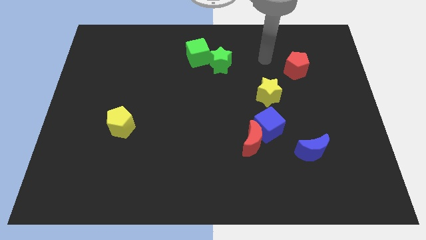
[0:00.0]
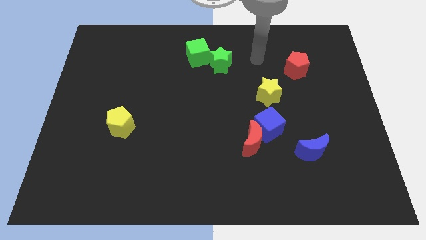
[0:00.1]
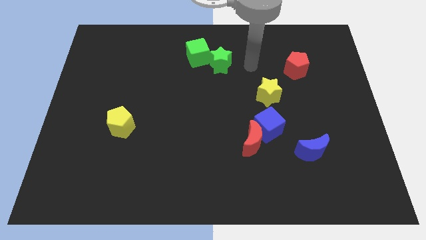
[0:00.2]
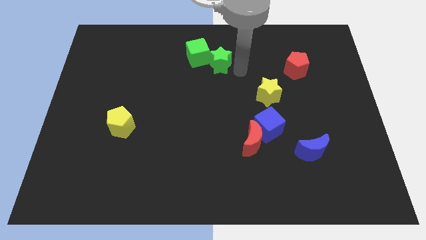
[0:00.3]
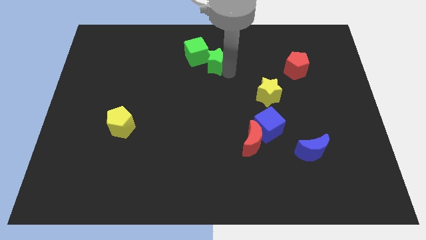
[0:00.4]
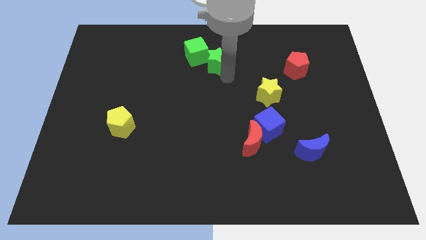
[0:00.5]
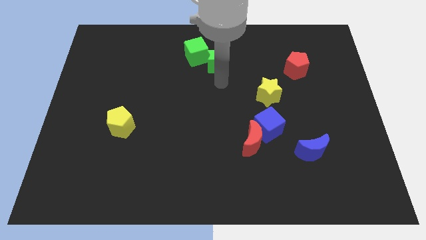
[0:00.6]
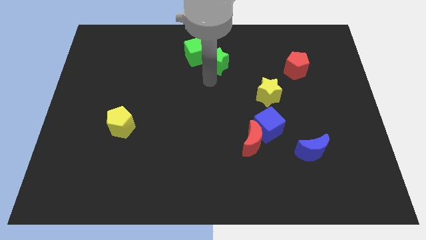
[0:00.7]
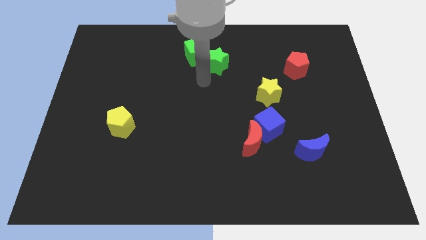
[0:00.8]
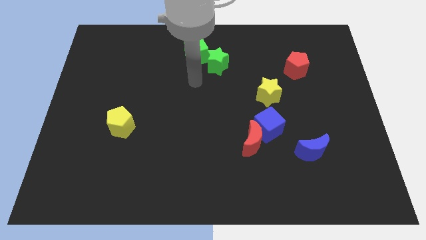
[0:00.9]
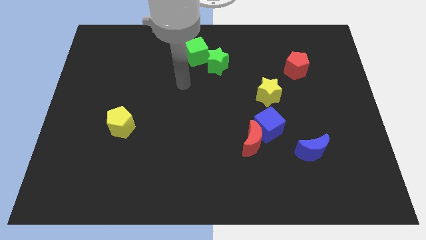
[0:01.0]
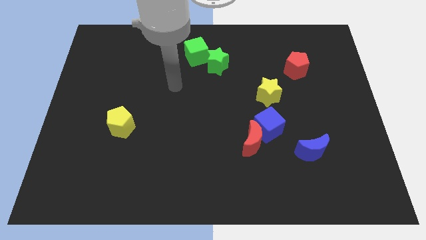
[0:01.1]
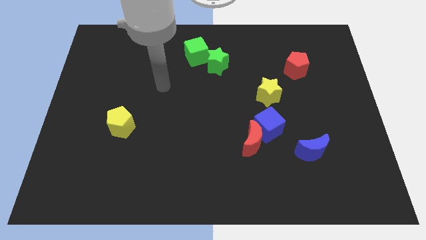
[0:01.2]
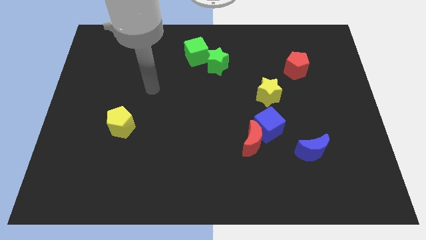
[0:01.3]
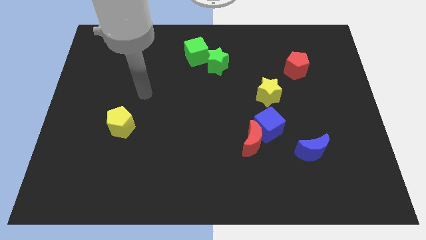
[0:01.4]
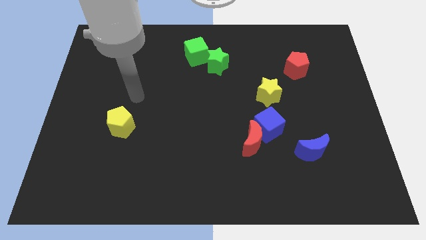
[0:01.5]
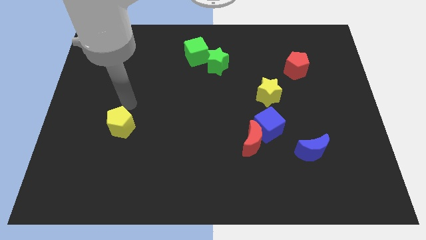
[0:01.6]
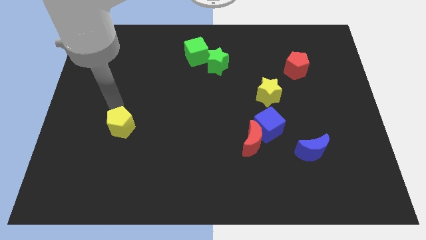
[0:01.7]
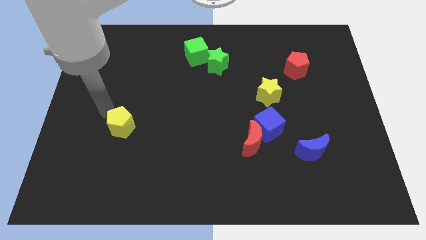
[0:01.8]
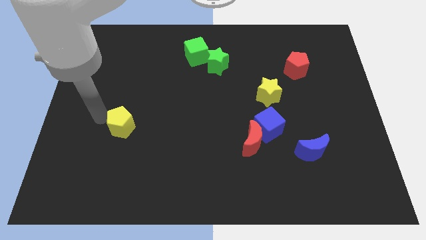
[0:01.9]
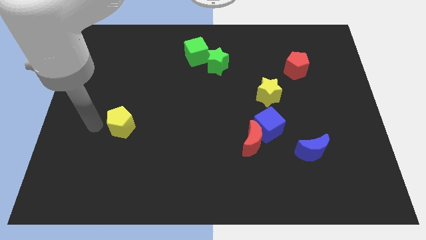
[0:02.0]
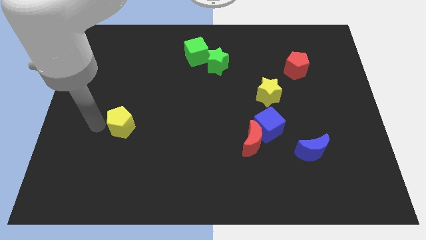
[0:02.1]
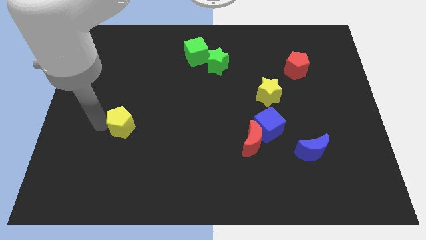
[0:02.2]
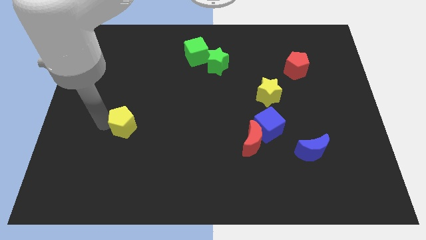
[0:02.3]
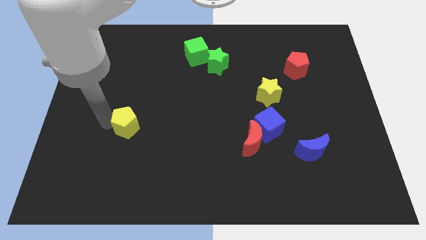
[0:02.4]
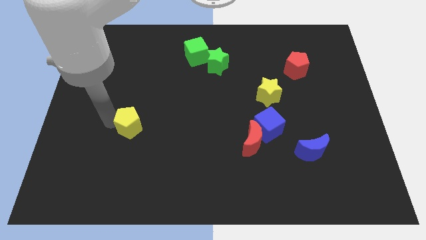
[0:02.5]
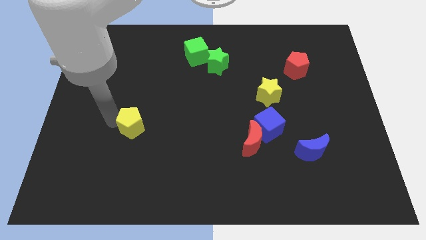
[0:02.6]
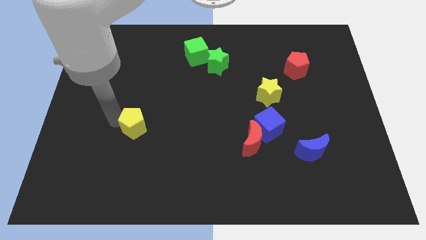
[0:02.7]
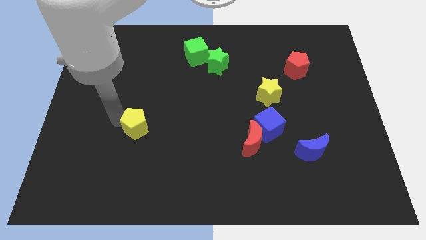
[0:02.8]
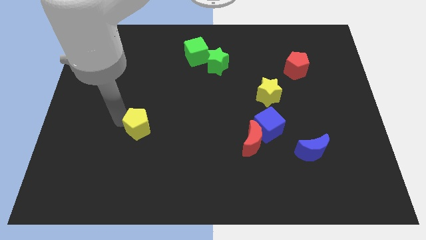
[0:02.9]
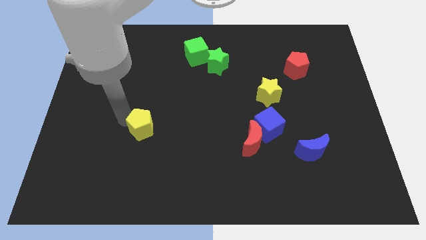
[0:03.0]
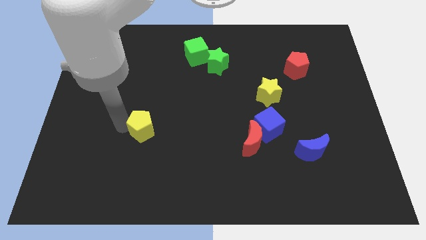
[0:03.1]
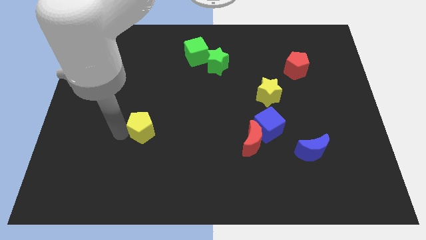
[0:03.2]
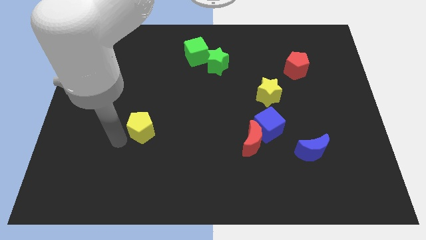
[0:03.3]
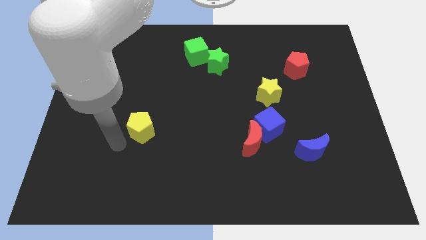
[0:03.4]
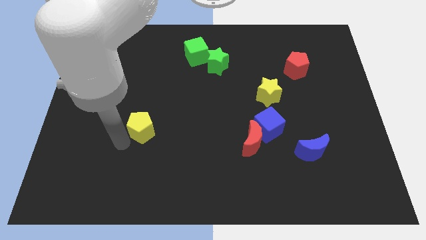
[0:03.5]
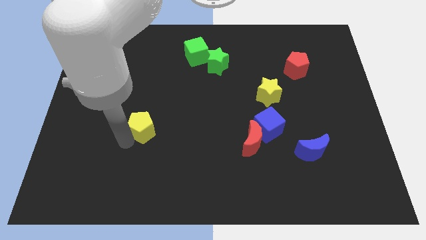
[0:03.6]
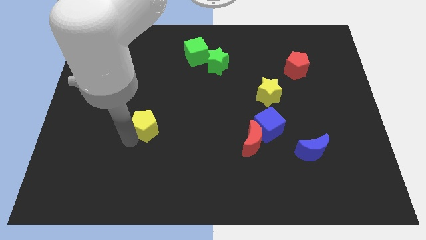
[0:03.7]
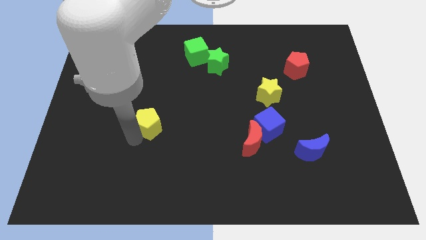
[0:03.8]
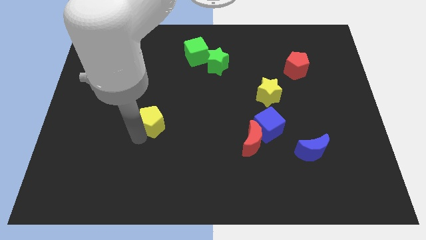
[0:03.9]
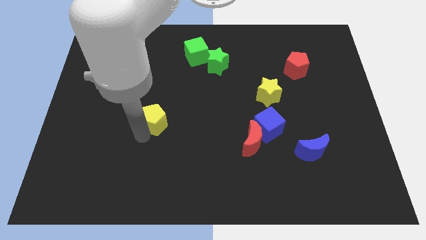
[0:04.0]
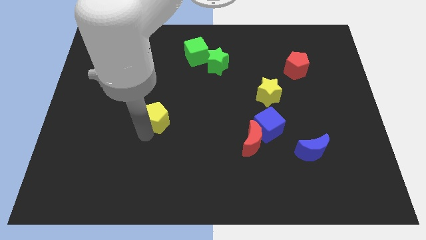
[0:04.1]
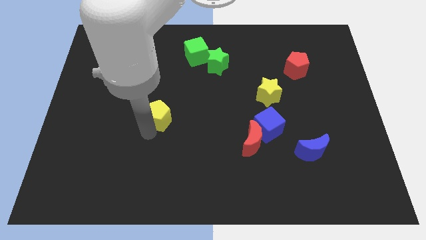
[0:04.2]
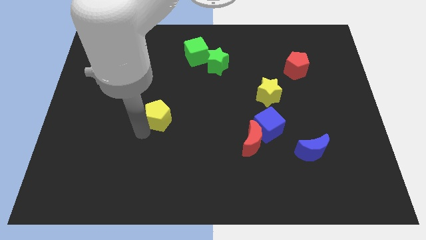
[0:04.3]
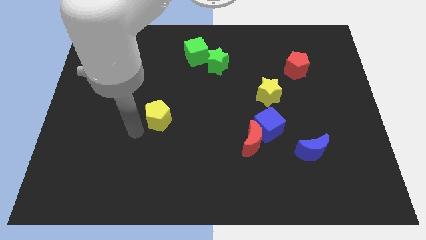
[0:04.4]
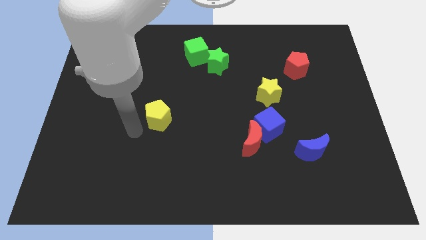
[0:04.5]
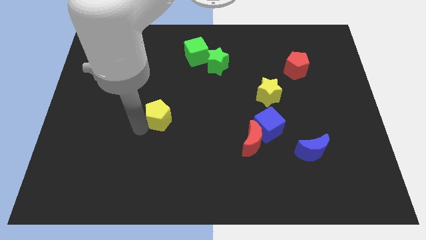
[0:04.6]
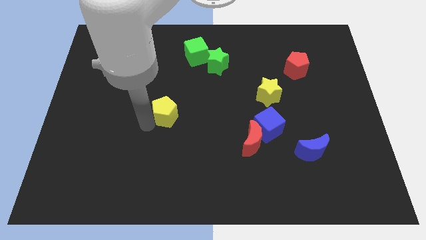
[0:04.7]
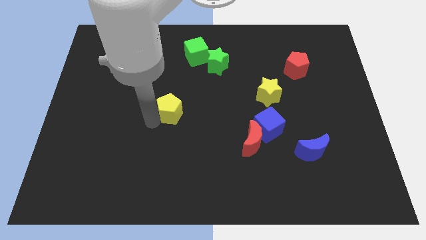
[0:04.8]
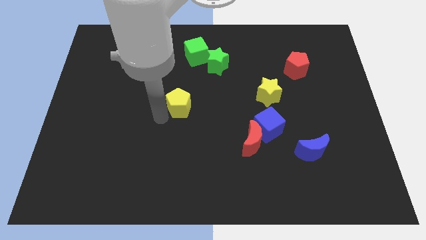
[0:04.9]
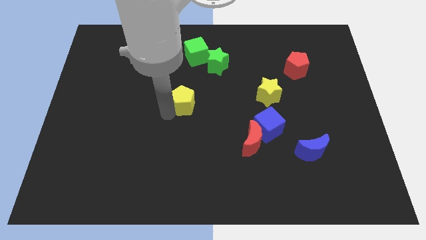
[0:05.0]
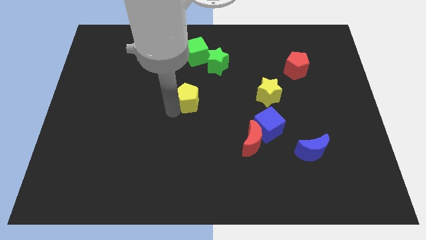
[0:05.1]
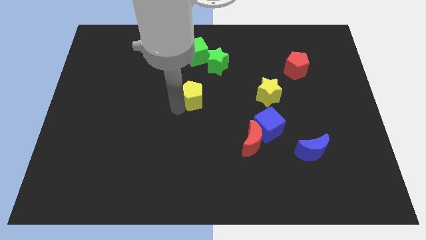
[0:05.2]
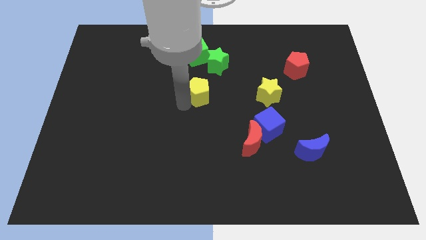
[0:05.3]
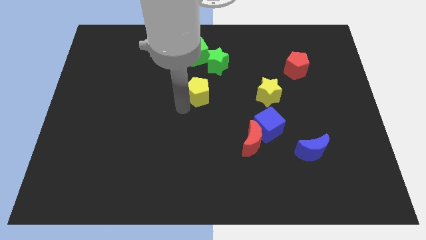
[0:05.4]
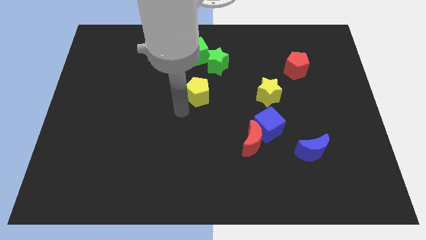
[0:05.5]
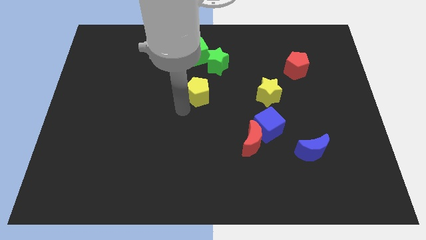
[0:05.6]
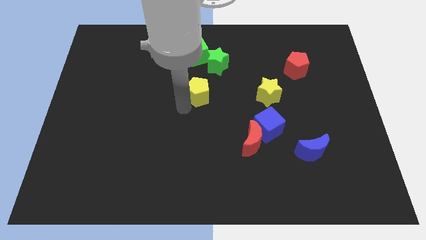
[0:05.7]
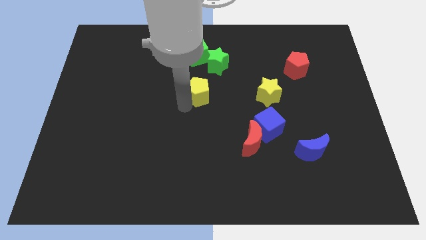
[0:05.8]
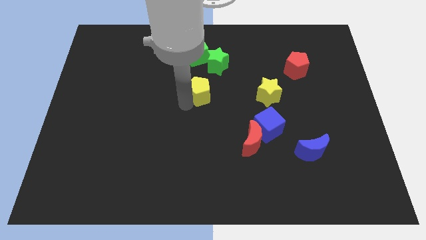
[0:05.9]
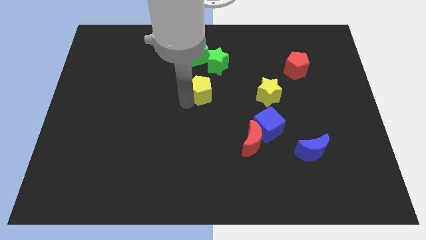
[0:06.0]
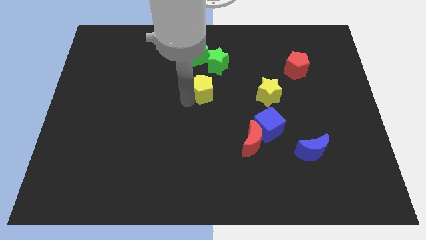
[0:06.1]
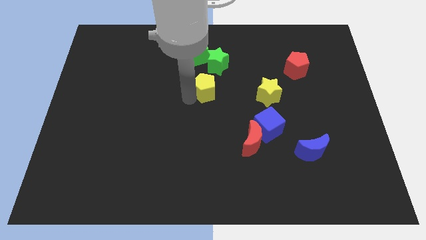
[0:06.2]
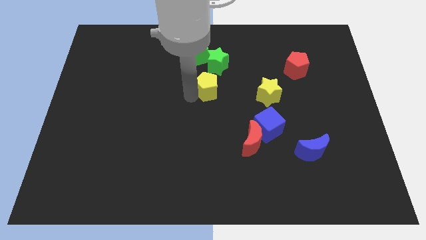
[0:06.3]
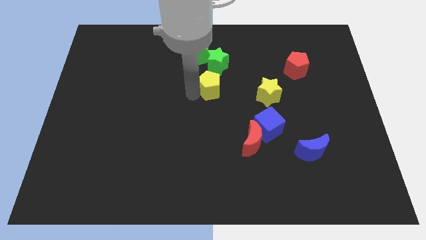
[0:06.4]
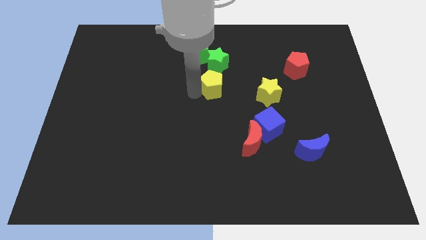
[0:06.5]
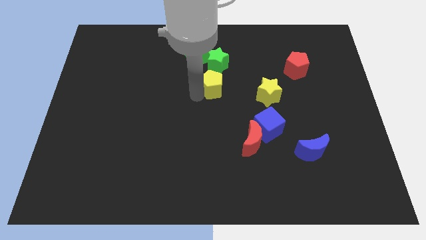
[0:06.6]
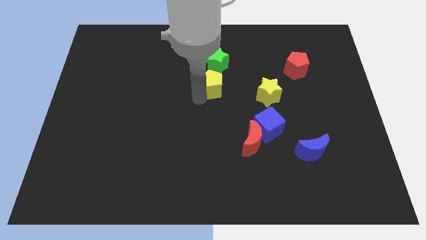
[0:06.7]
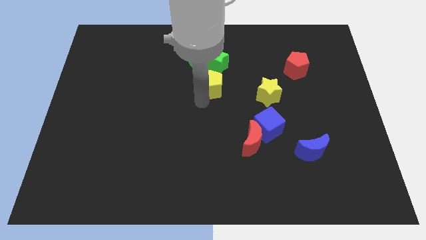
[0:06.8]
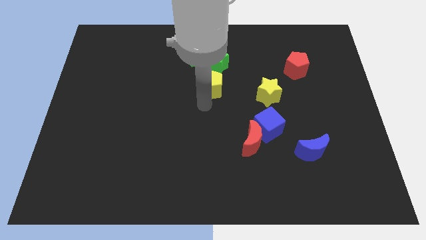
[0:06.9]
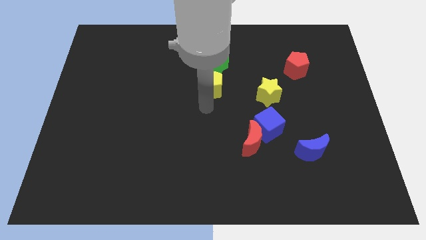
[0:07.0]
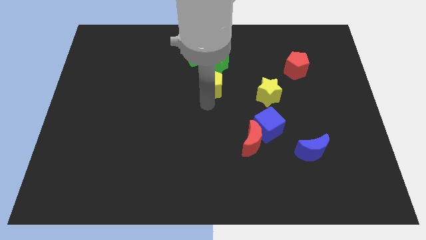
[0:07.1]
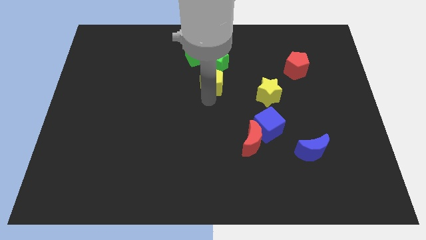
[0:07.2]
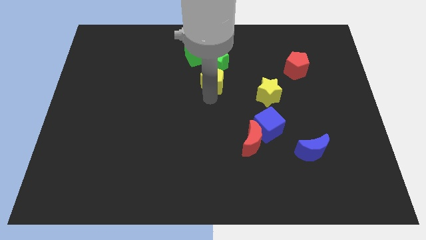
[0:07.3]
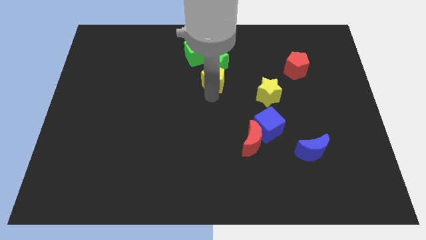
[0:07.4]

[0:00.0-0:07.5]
put the yellow pentagon towards the green star
